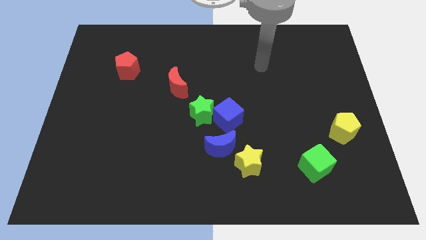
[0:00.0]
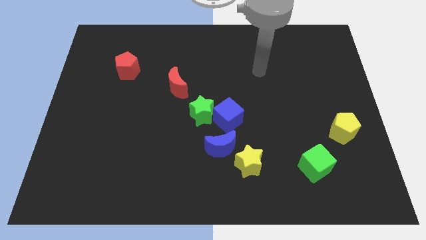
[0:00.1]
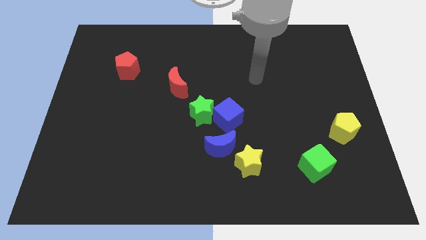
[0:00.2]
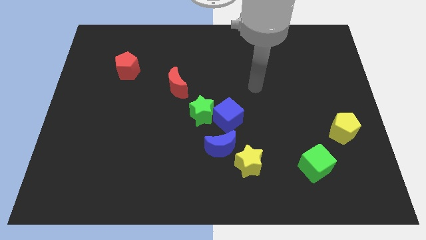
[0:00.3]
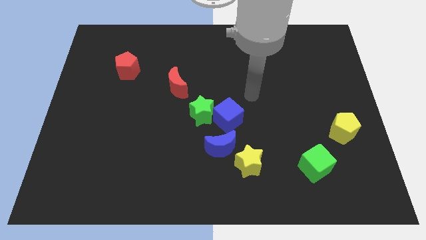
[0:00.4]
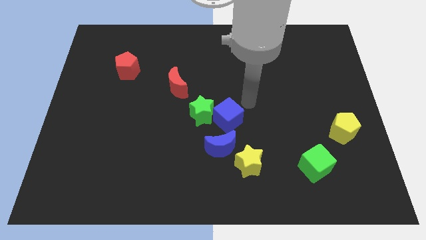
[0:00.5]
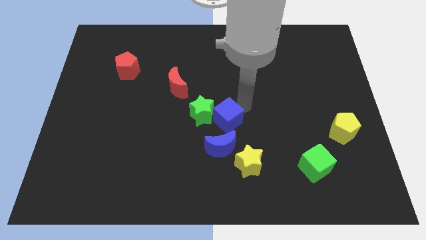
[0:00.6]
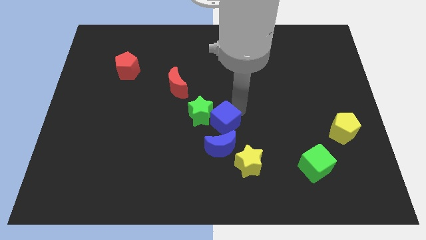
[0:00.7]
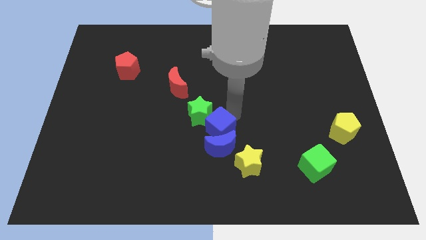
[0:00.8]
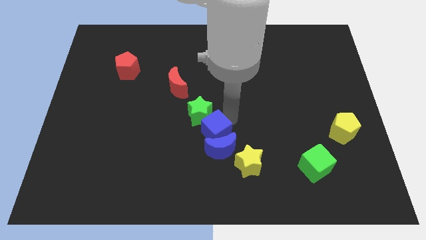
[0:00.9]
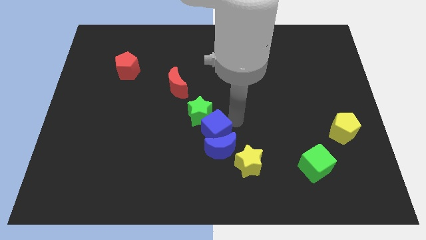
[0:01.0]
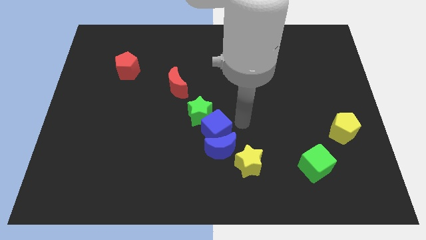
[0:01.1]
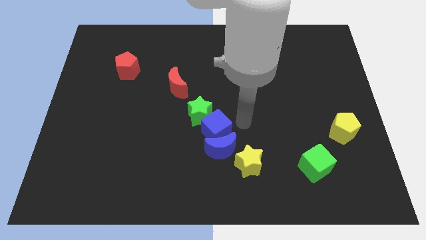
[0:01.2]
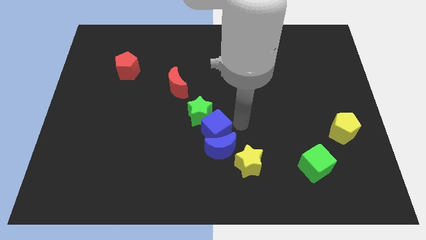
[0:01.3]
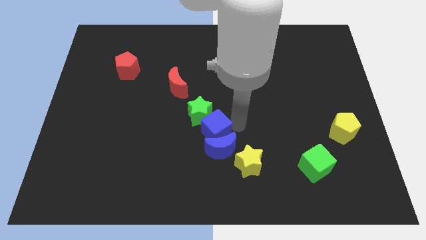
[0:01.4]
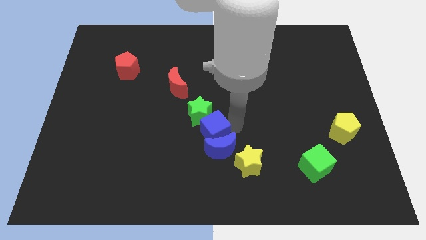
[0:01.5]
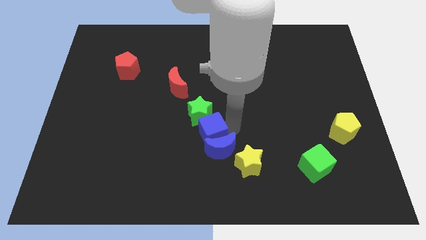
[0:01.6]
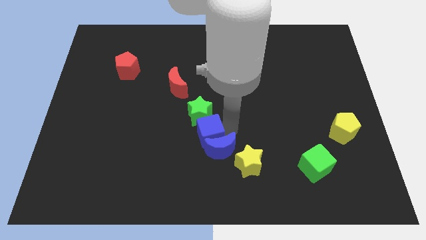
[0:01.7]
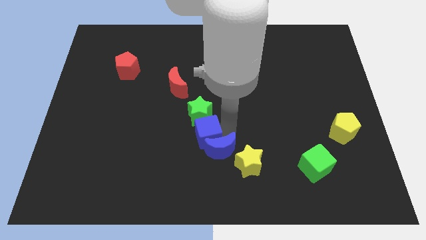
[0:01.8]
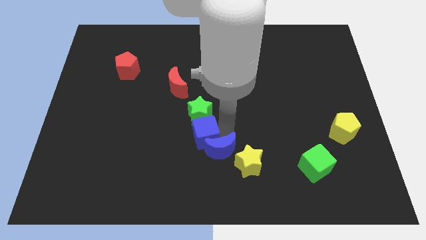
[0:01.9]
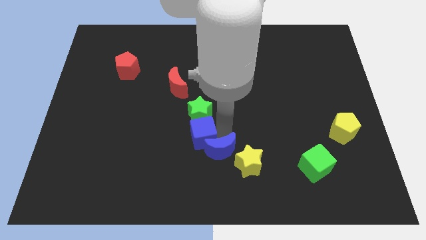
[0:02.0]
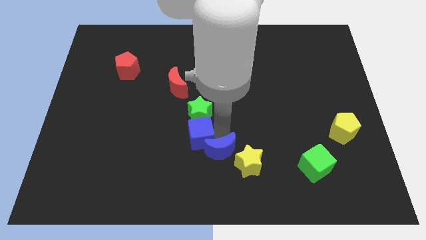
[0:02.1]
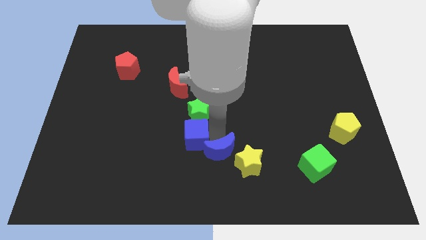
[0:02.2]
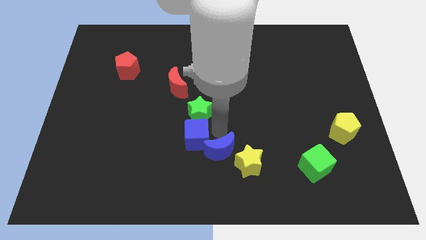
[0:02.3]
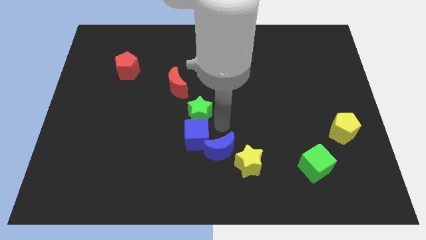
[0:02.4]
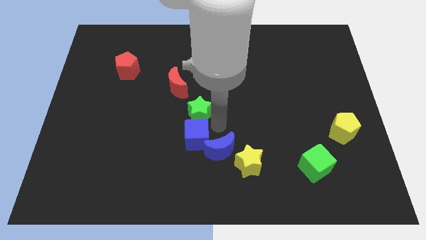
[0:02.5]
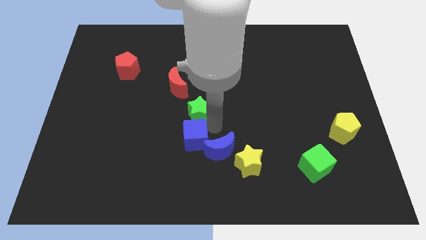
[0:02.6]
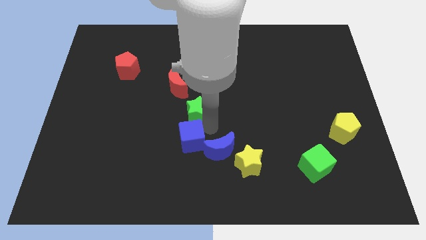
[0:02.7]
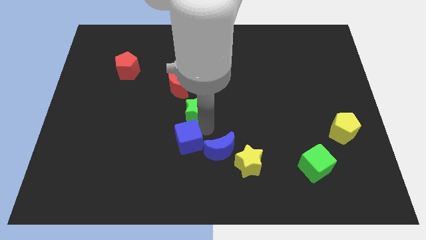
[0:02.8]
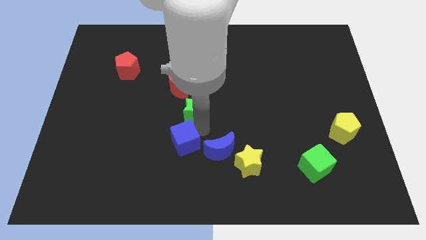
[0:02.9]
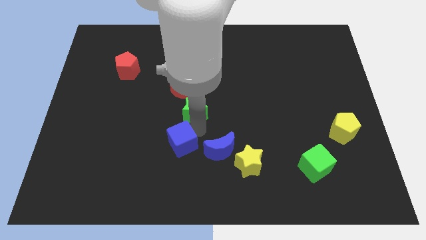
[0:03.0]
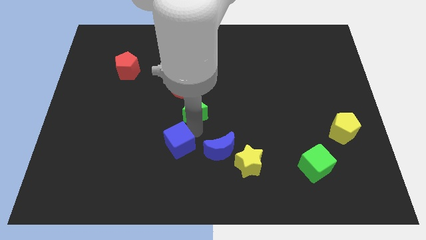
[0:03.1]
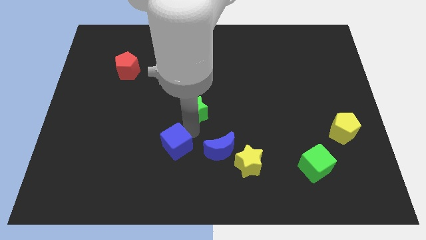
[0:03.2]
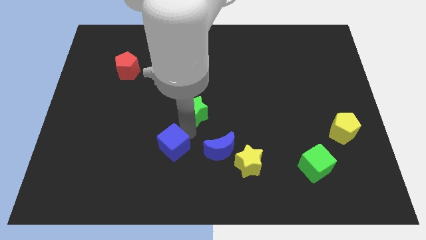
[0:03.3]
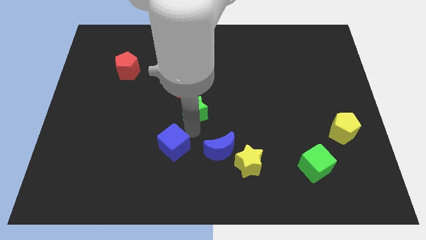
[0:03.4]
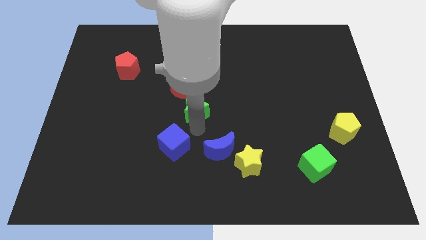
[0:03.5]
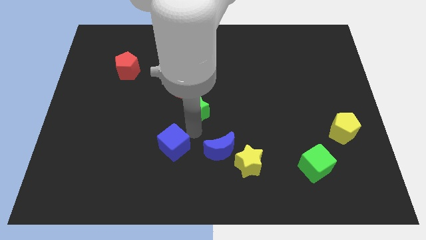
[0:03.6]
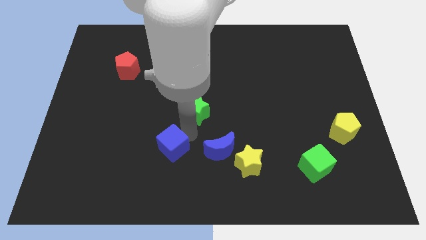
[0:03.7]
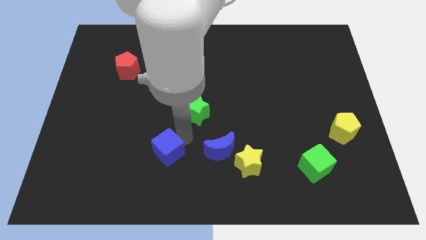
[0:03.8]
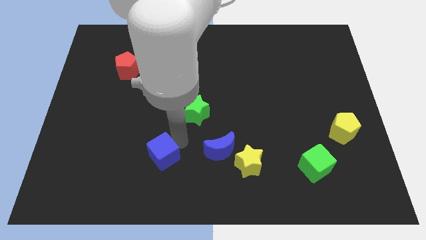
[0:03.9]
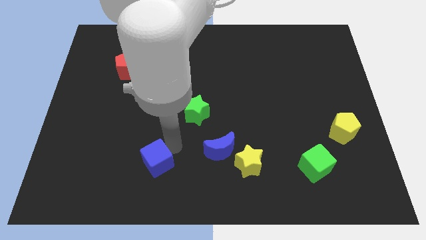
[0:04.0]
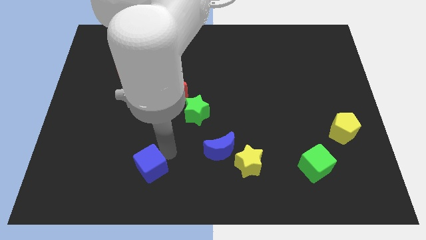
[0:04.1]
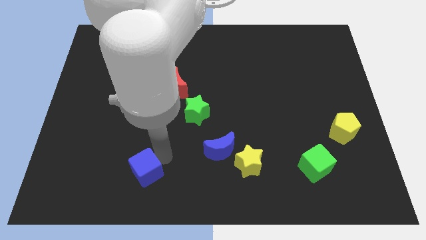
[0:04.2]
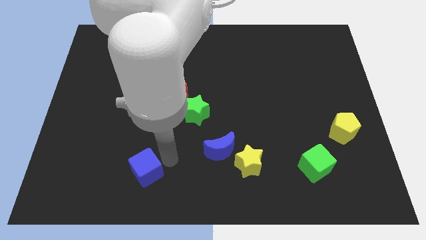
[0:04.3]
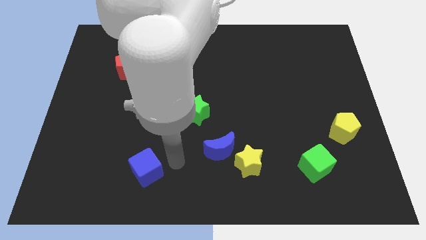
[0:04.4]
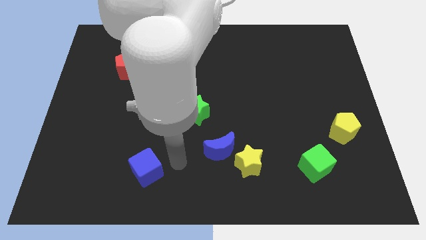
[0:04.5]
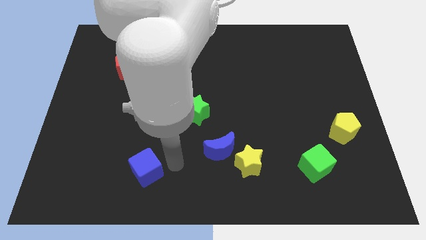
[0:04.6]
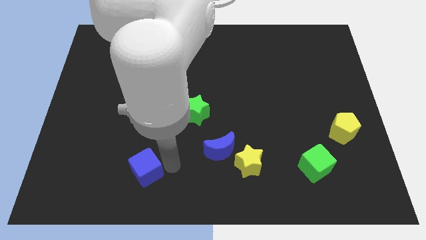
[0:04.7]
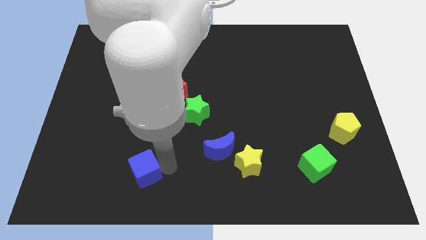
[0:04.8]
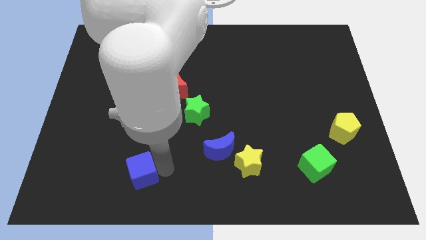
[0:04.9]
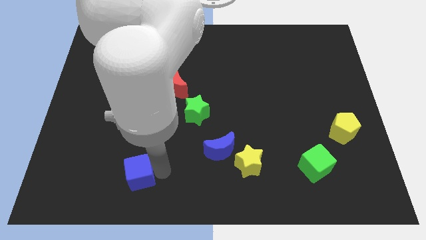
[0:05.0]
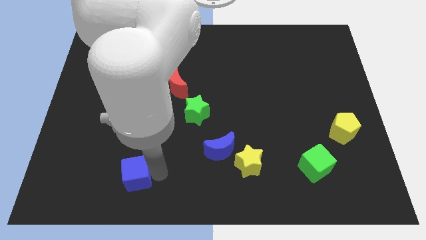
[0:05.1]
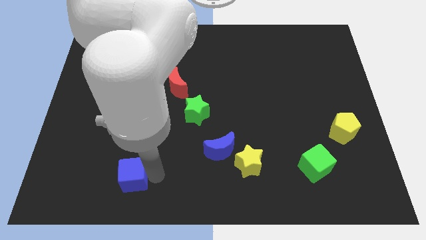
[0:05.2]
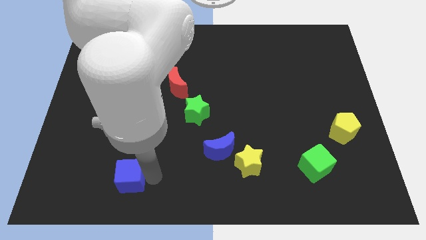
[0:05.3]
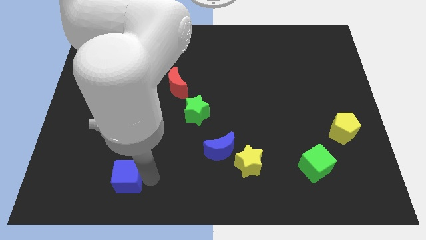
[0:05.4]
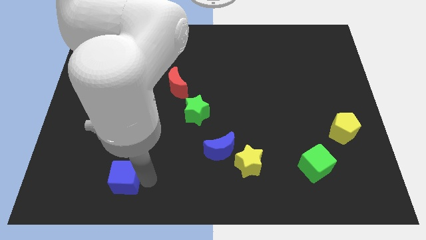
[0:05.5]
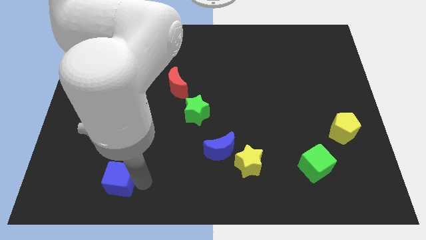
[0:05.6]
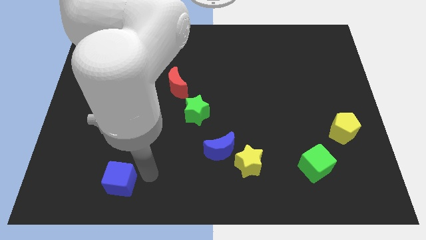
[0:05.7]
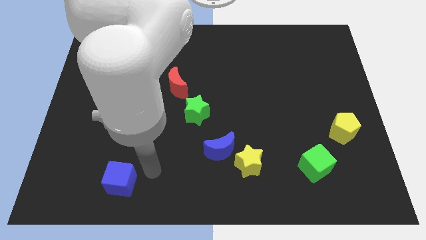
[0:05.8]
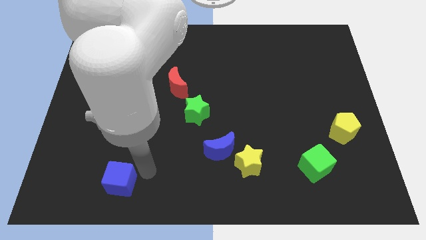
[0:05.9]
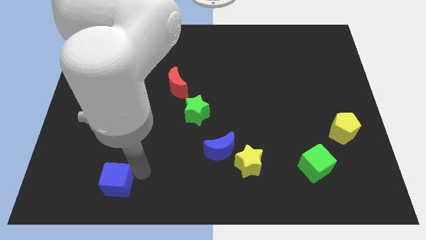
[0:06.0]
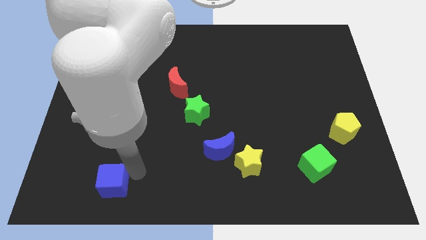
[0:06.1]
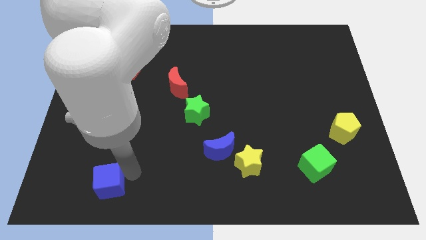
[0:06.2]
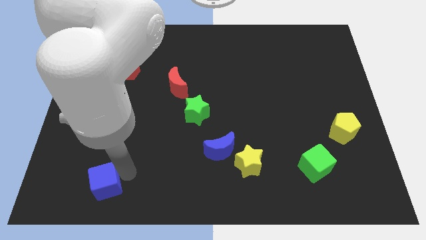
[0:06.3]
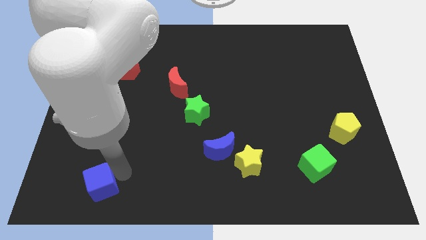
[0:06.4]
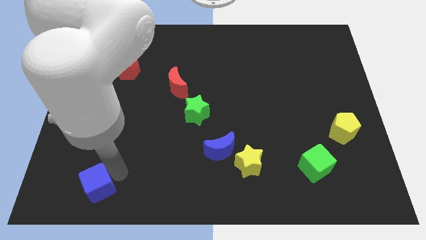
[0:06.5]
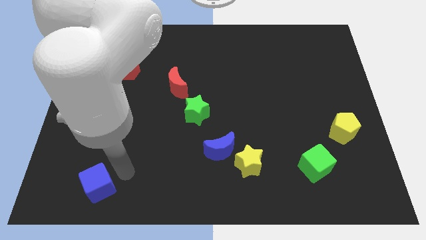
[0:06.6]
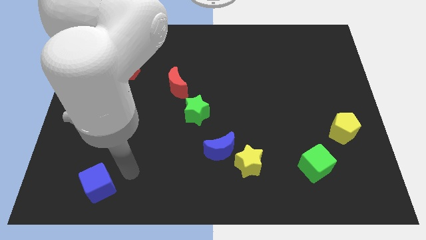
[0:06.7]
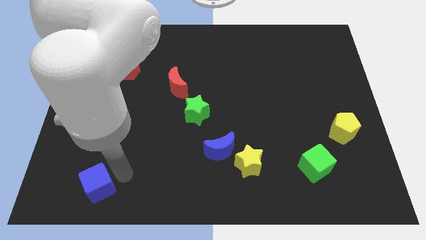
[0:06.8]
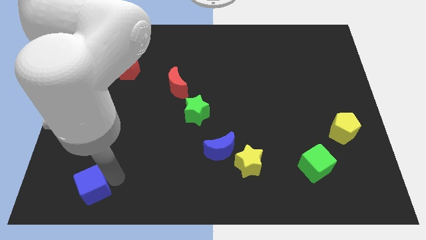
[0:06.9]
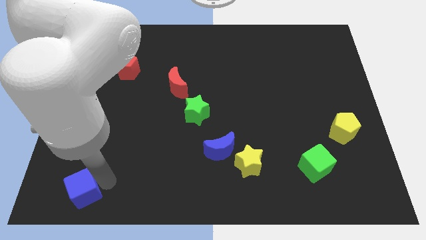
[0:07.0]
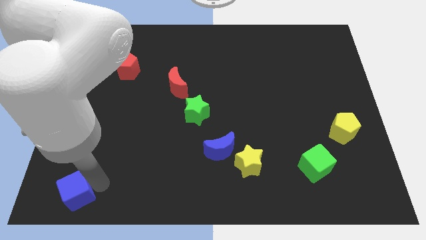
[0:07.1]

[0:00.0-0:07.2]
push the blue cube to the lower left corner
